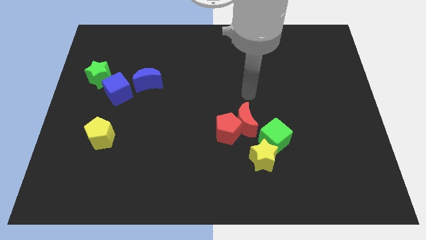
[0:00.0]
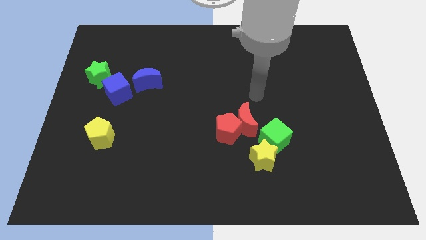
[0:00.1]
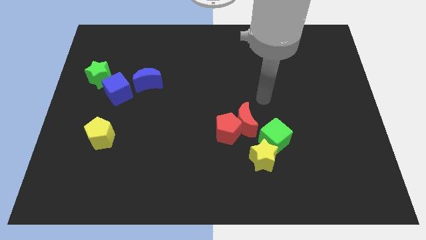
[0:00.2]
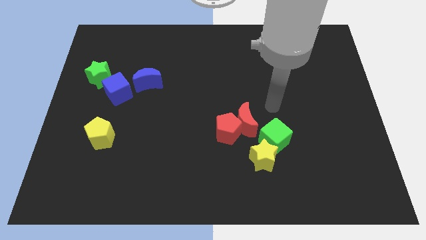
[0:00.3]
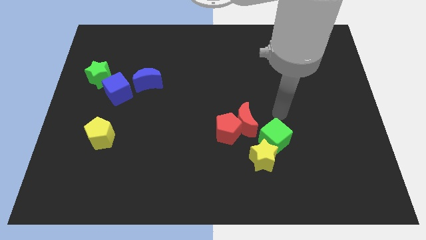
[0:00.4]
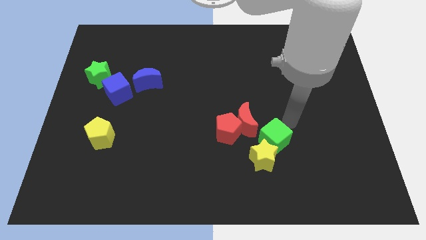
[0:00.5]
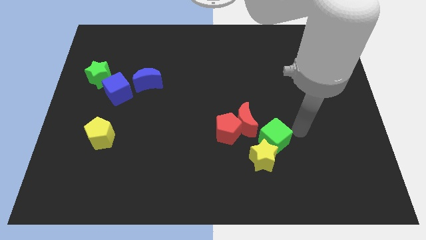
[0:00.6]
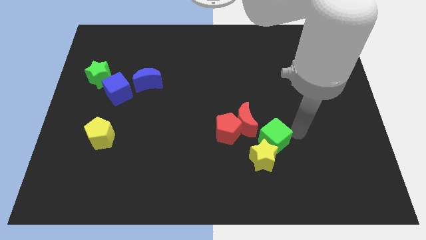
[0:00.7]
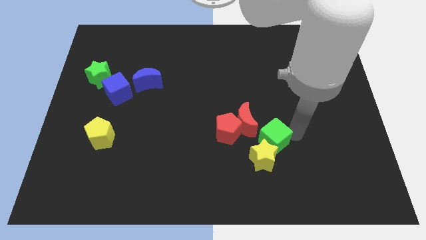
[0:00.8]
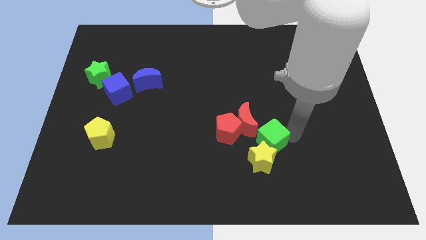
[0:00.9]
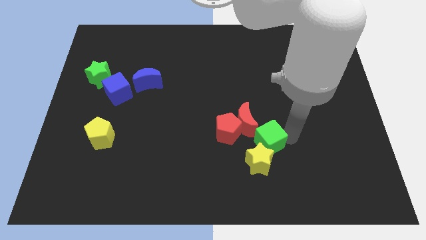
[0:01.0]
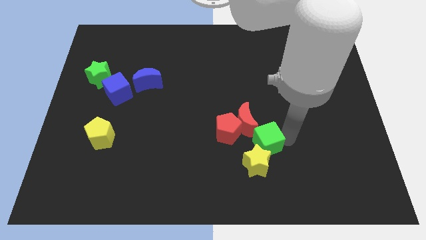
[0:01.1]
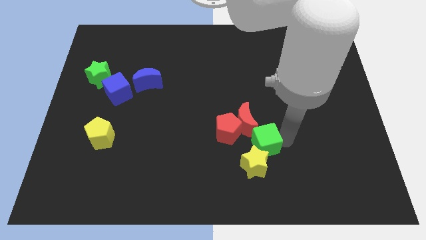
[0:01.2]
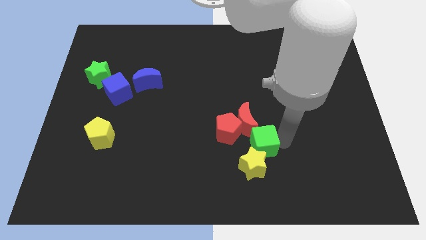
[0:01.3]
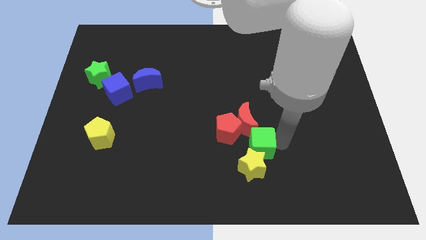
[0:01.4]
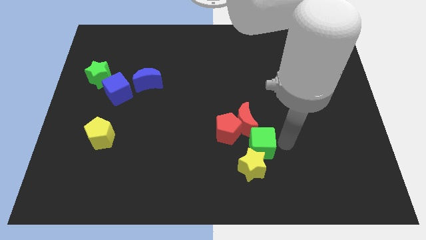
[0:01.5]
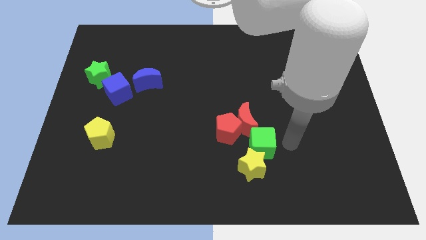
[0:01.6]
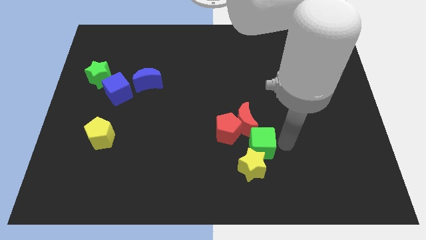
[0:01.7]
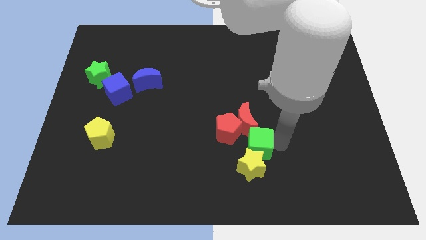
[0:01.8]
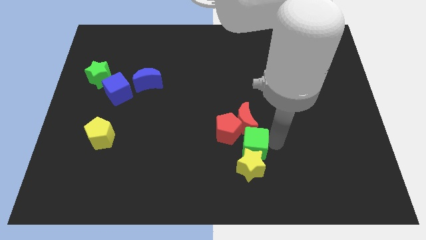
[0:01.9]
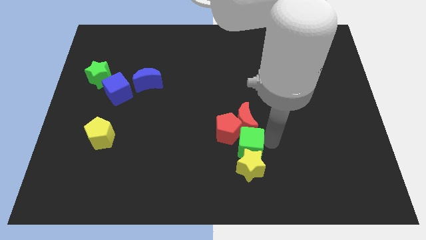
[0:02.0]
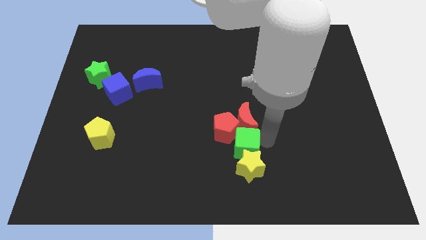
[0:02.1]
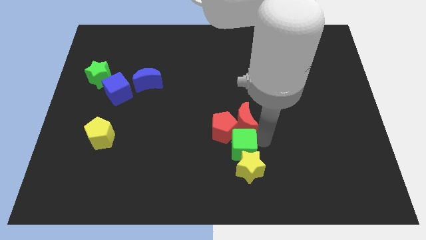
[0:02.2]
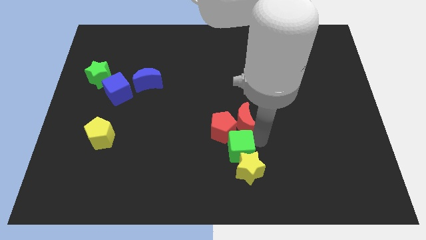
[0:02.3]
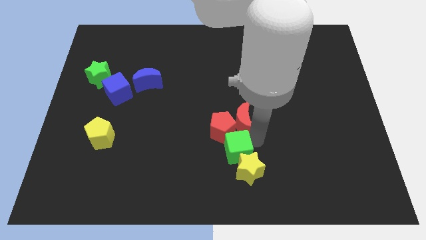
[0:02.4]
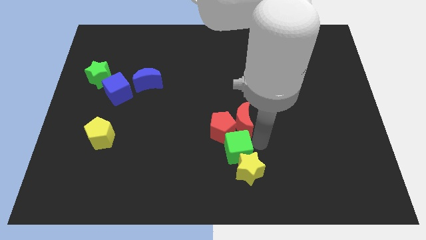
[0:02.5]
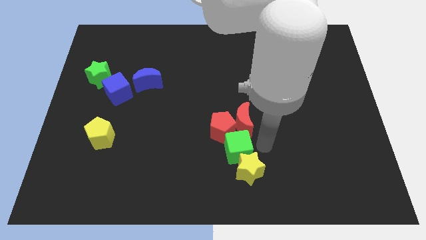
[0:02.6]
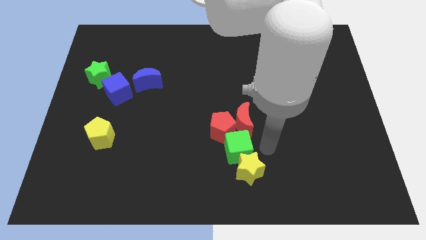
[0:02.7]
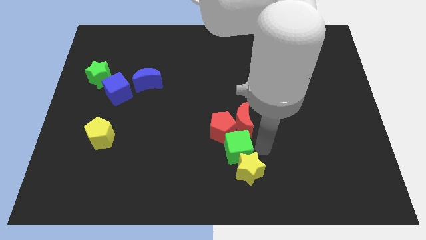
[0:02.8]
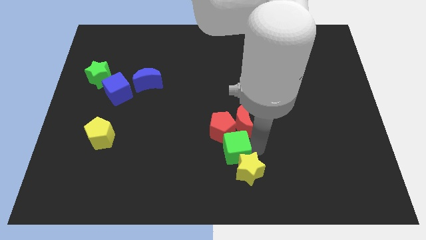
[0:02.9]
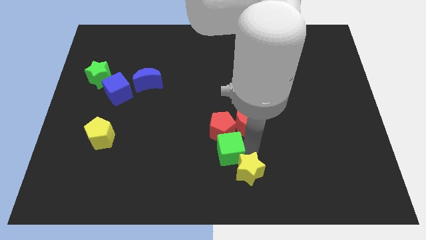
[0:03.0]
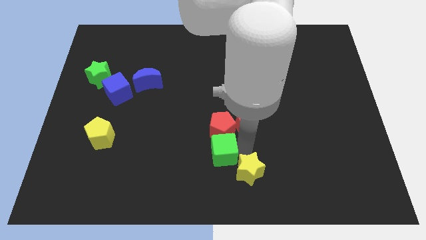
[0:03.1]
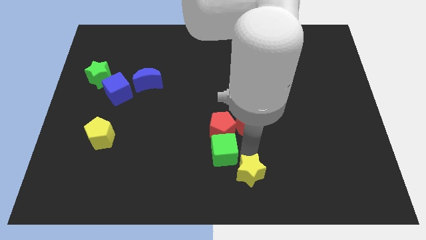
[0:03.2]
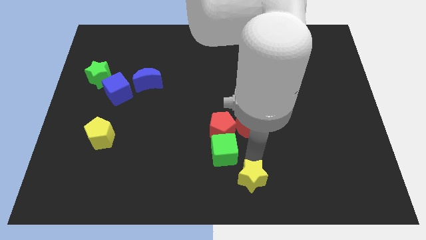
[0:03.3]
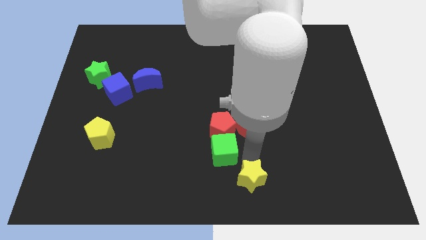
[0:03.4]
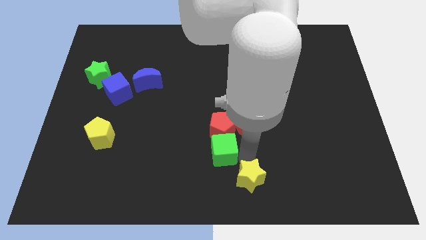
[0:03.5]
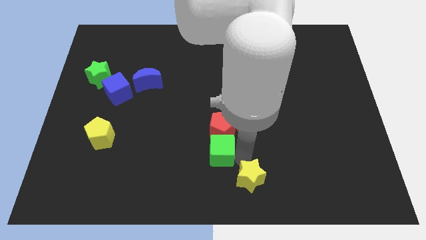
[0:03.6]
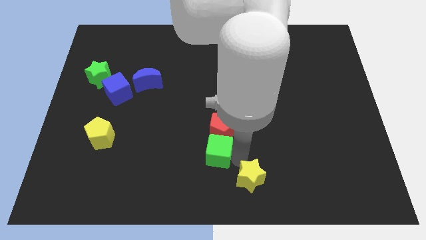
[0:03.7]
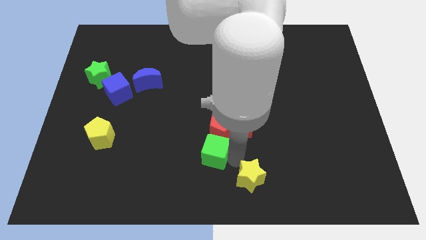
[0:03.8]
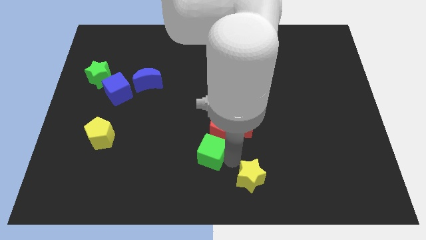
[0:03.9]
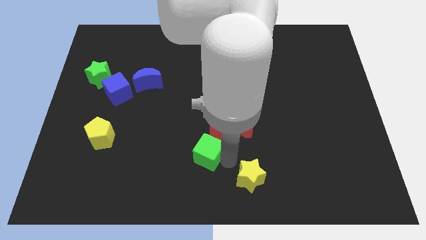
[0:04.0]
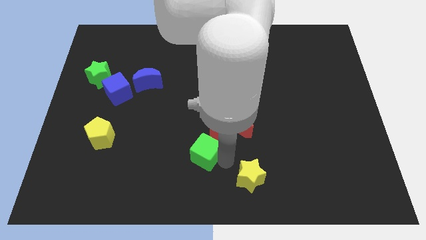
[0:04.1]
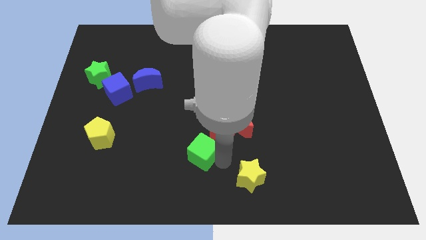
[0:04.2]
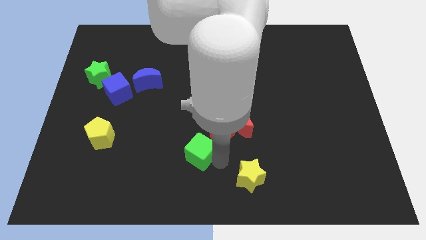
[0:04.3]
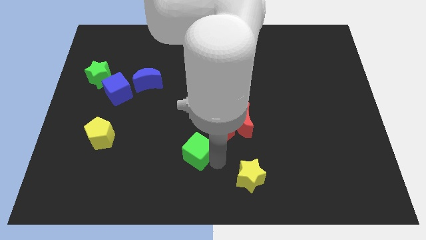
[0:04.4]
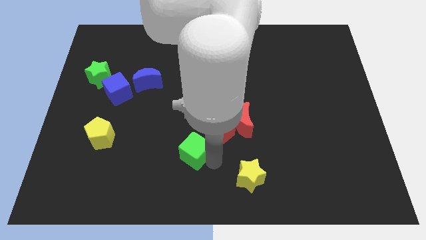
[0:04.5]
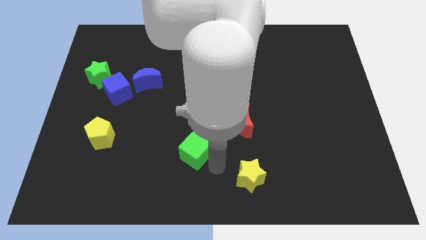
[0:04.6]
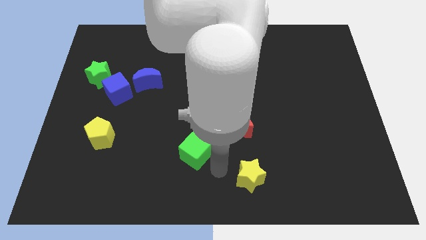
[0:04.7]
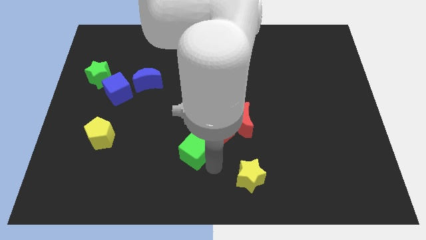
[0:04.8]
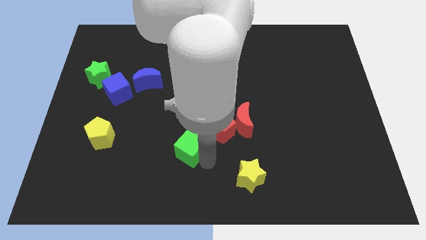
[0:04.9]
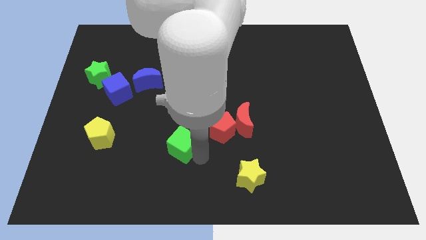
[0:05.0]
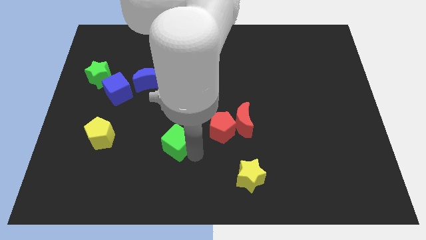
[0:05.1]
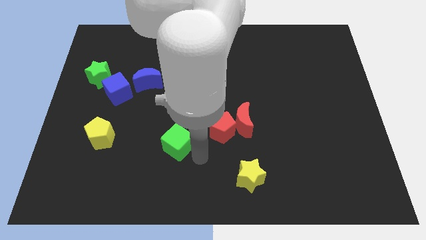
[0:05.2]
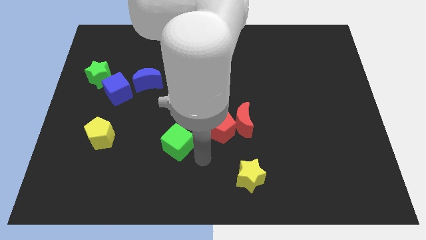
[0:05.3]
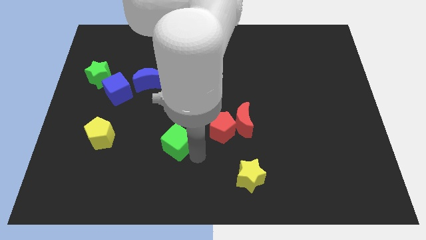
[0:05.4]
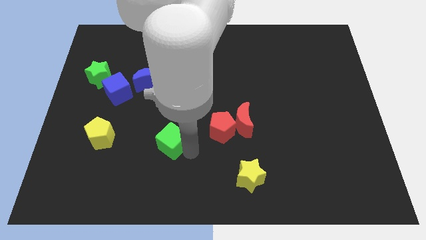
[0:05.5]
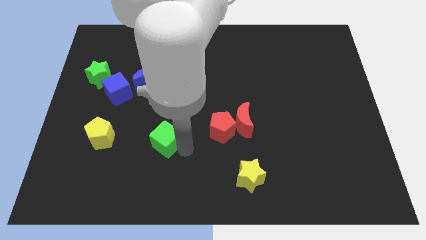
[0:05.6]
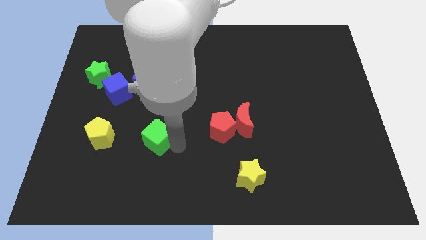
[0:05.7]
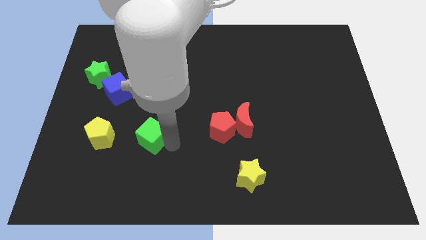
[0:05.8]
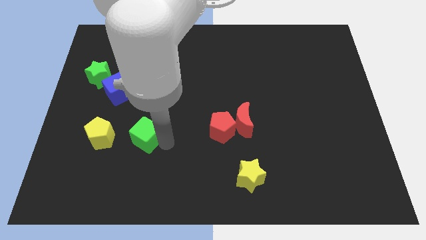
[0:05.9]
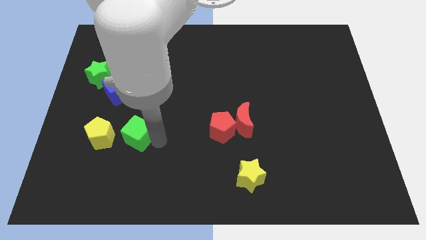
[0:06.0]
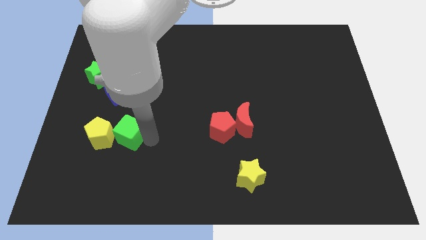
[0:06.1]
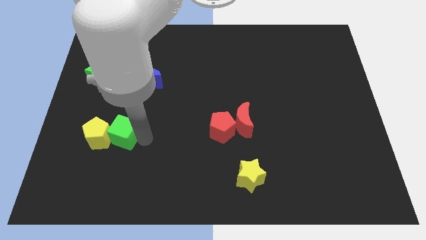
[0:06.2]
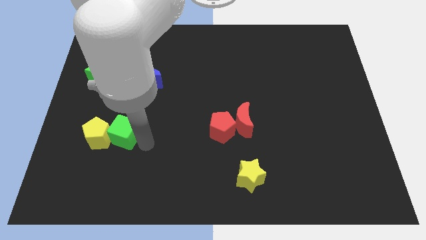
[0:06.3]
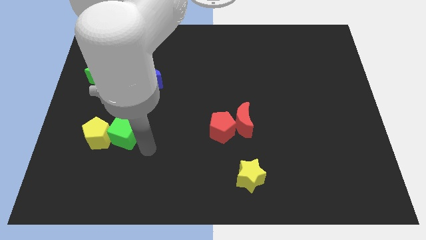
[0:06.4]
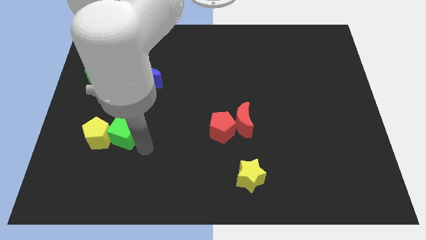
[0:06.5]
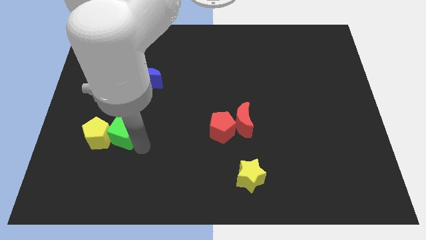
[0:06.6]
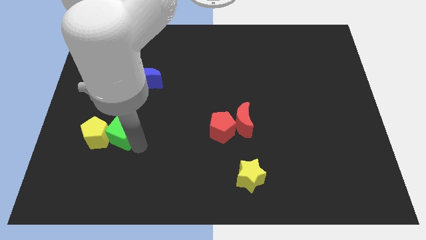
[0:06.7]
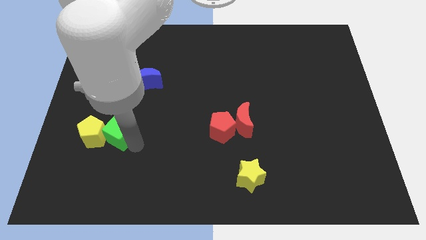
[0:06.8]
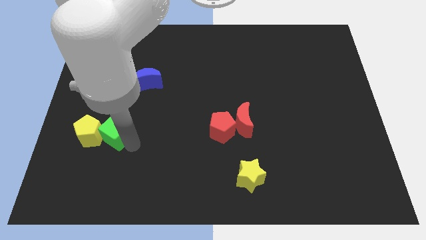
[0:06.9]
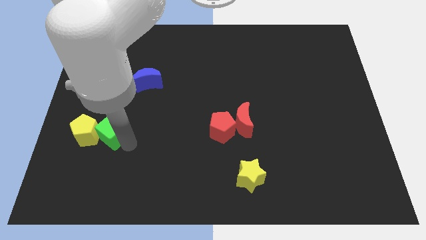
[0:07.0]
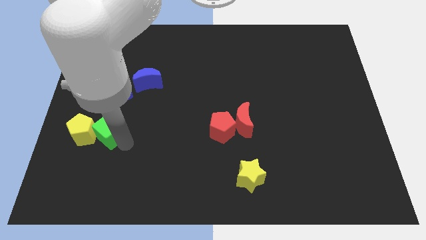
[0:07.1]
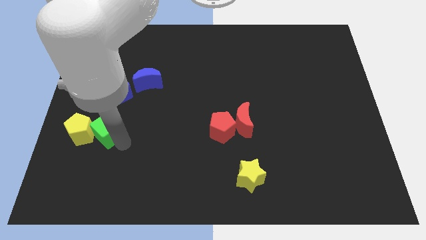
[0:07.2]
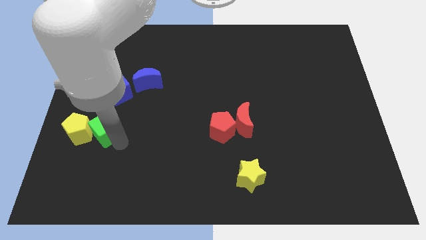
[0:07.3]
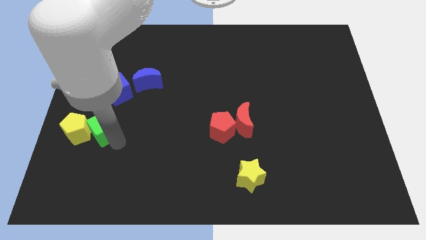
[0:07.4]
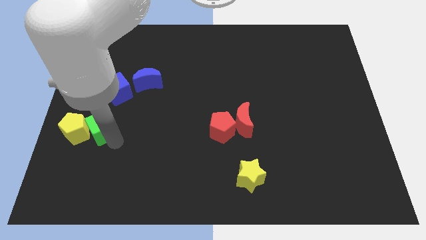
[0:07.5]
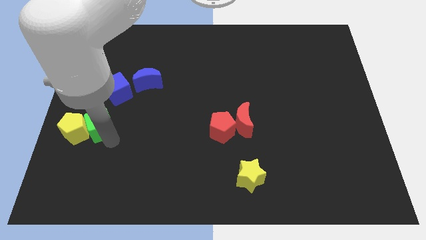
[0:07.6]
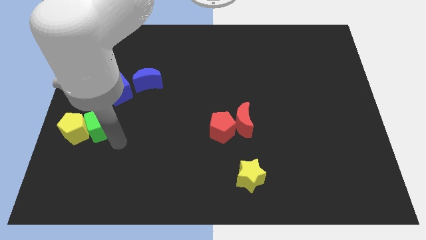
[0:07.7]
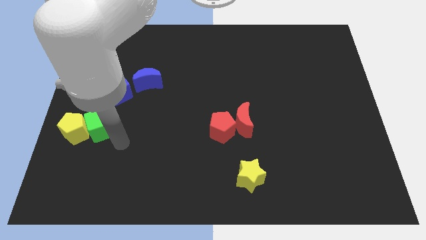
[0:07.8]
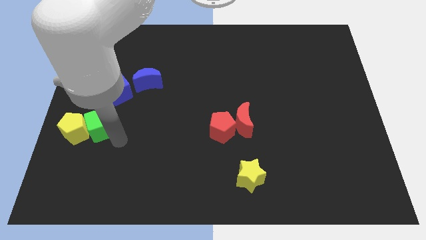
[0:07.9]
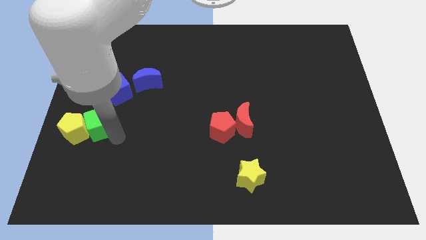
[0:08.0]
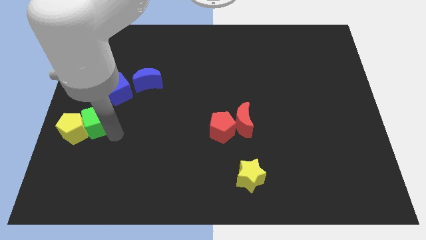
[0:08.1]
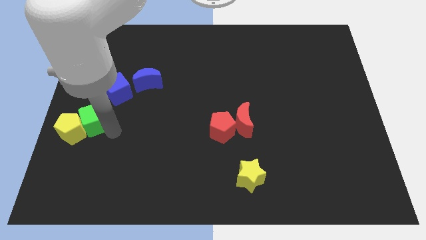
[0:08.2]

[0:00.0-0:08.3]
put the green cube to the center left
